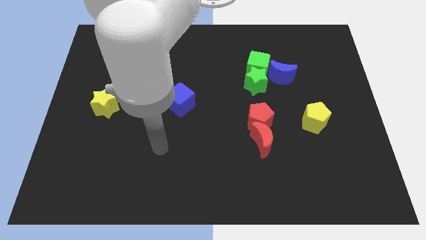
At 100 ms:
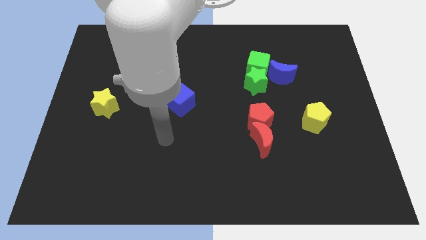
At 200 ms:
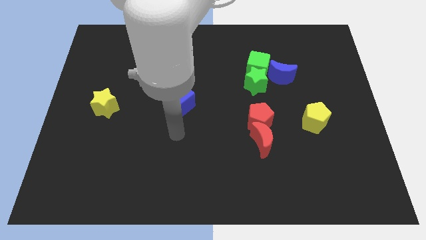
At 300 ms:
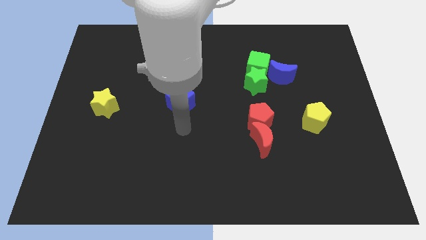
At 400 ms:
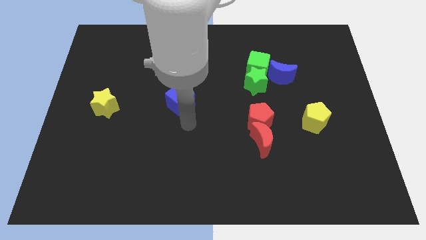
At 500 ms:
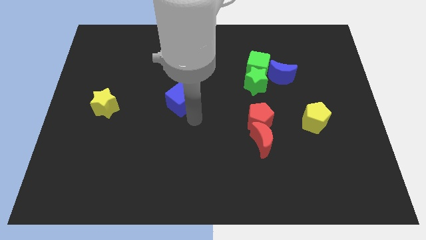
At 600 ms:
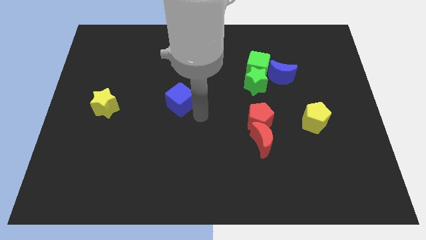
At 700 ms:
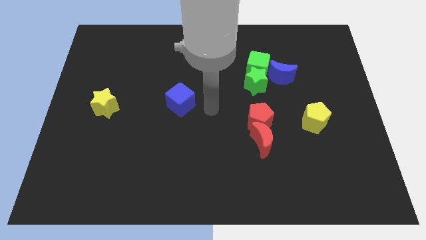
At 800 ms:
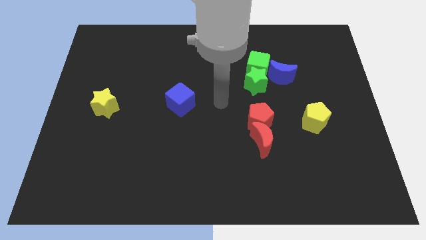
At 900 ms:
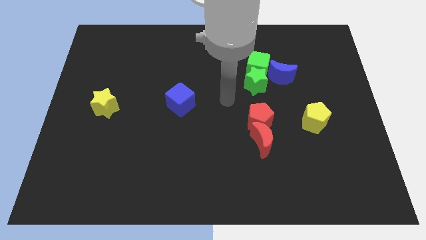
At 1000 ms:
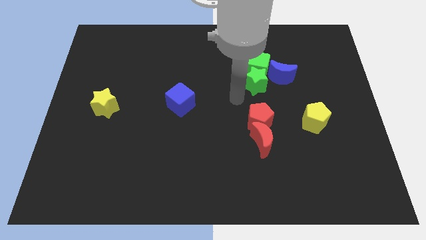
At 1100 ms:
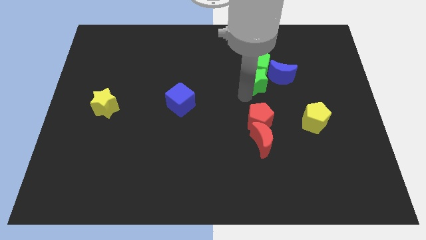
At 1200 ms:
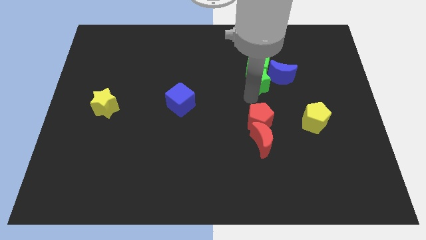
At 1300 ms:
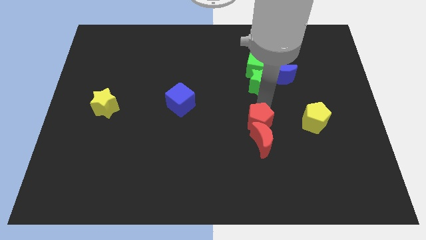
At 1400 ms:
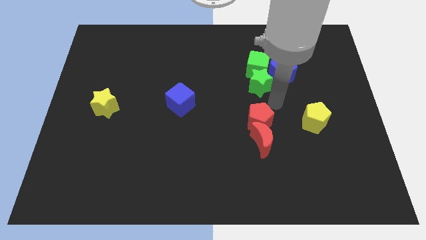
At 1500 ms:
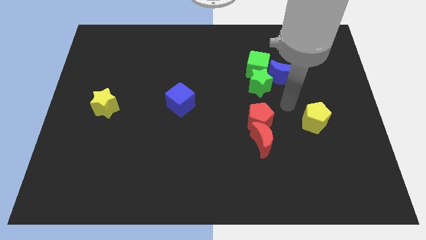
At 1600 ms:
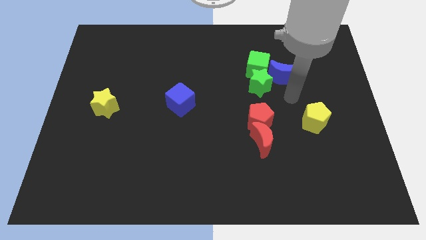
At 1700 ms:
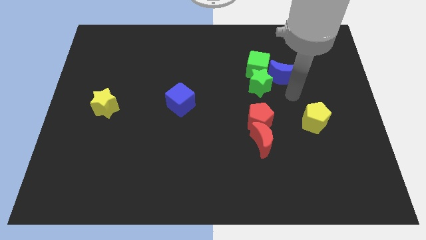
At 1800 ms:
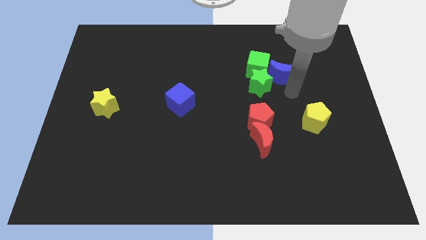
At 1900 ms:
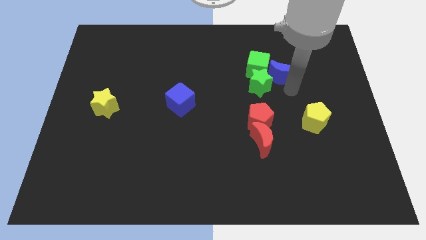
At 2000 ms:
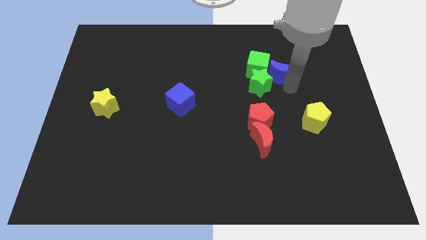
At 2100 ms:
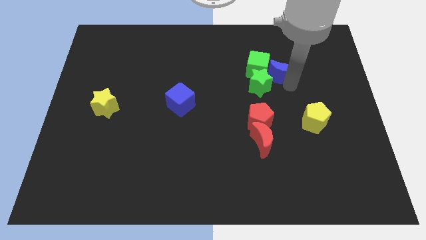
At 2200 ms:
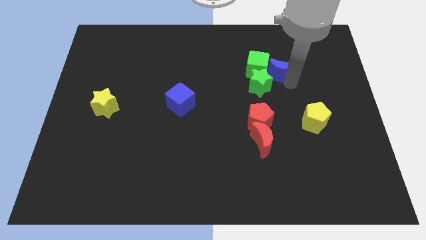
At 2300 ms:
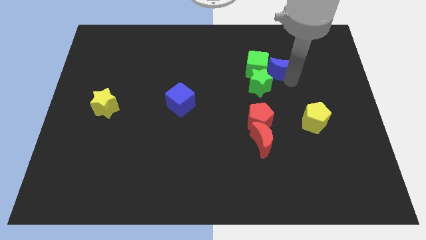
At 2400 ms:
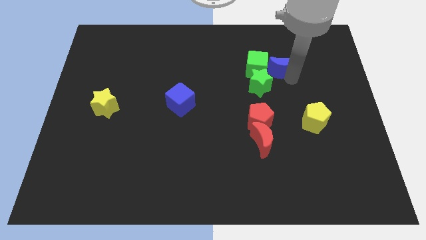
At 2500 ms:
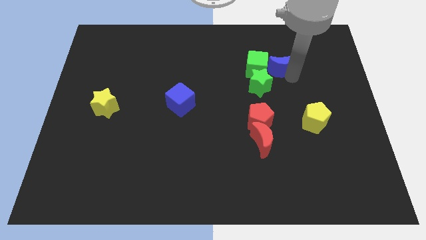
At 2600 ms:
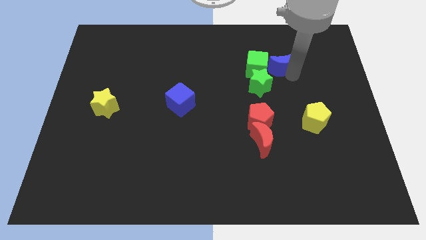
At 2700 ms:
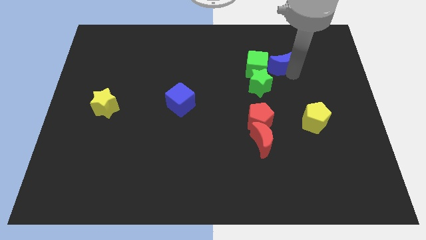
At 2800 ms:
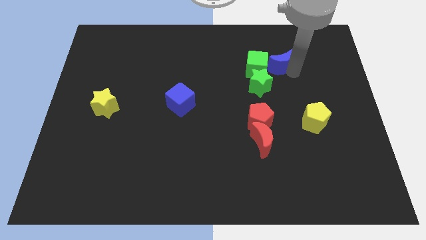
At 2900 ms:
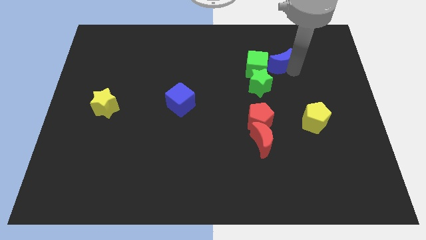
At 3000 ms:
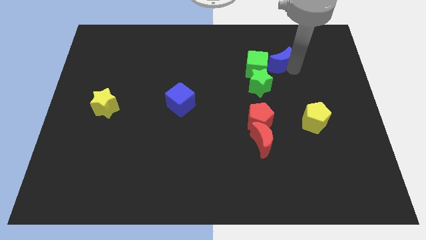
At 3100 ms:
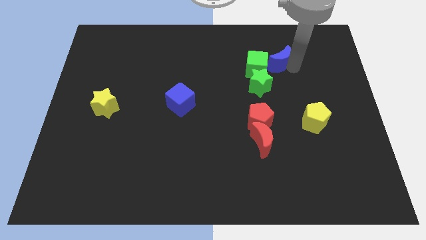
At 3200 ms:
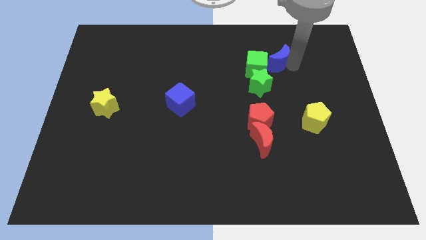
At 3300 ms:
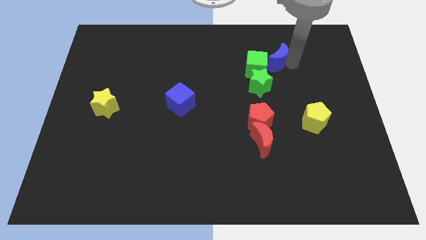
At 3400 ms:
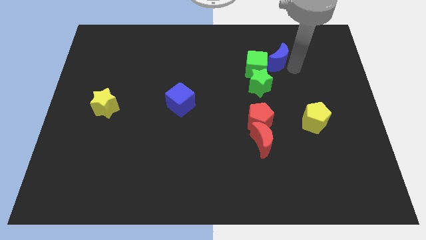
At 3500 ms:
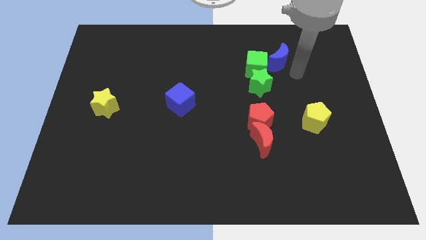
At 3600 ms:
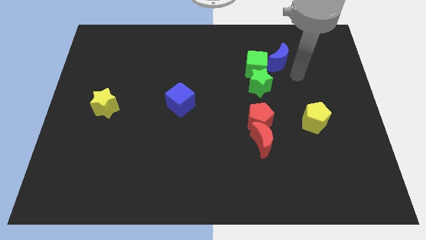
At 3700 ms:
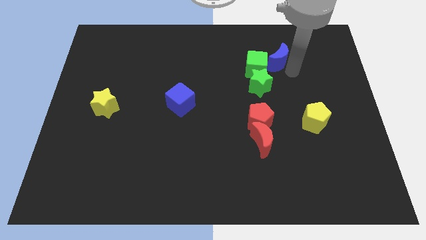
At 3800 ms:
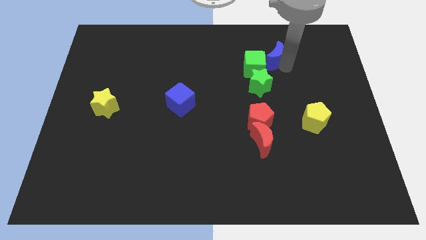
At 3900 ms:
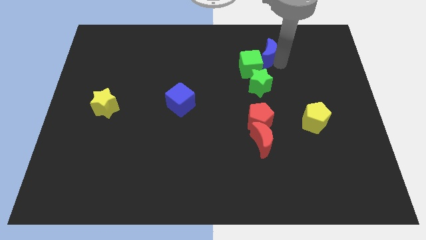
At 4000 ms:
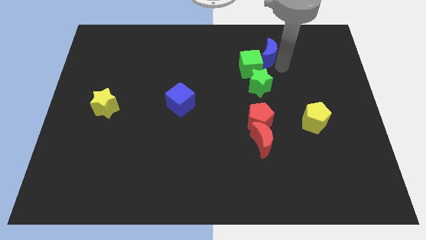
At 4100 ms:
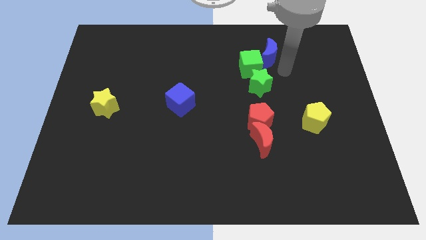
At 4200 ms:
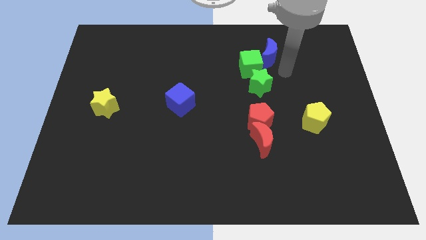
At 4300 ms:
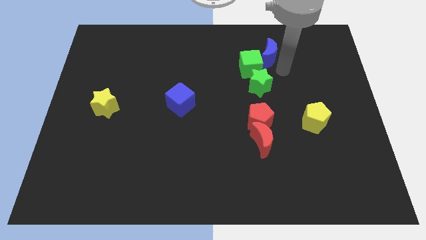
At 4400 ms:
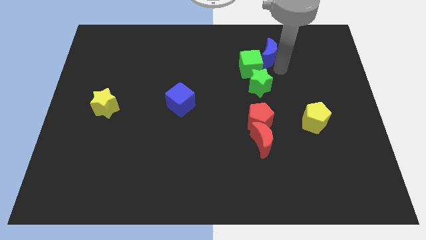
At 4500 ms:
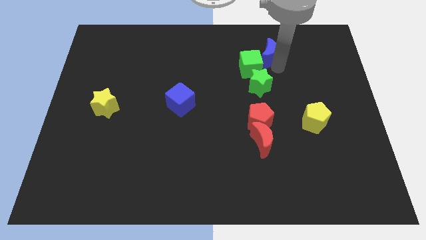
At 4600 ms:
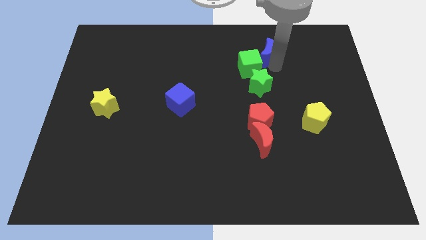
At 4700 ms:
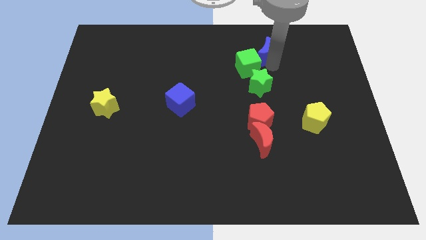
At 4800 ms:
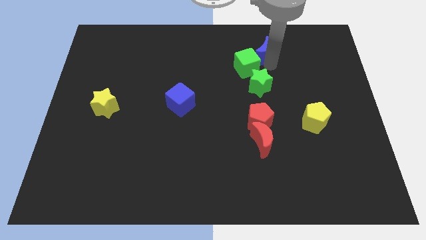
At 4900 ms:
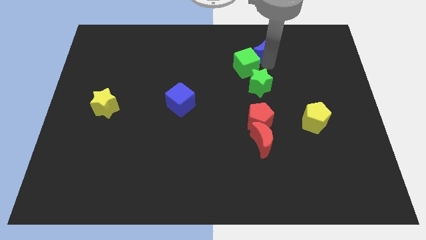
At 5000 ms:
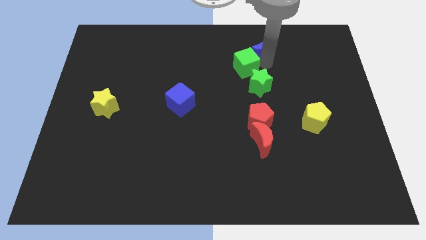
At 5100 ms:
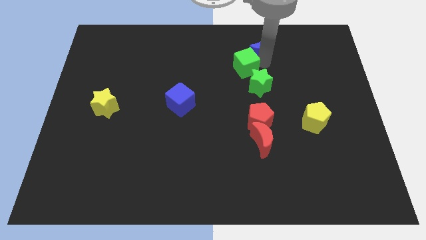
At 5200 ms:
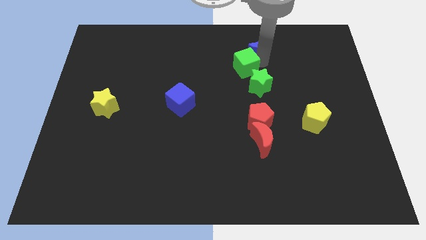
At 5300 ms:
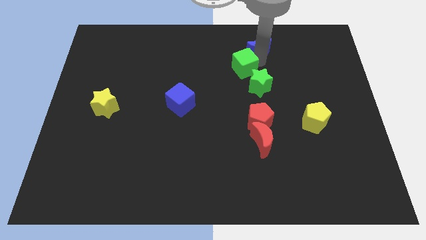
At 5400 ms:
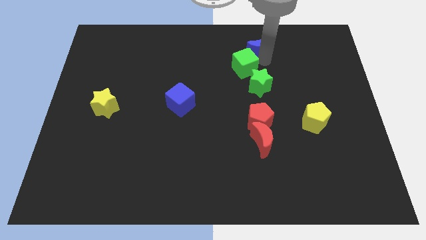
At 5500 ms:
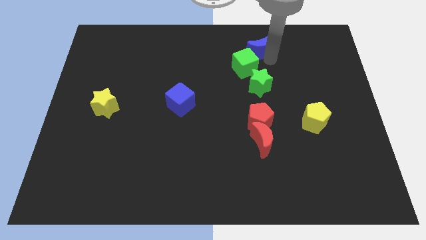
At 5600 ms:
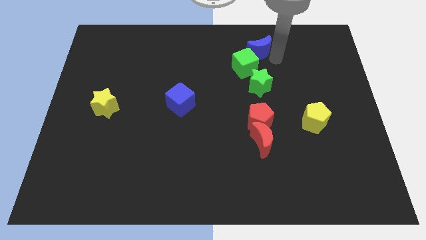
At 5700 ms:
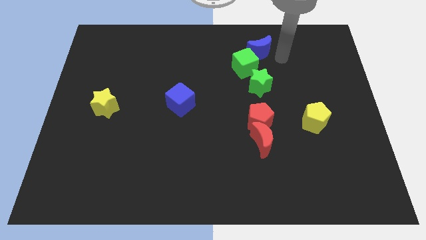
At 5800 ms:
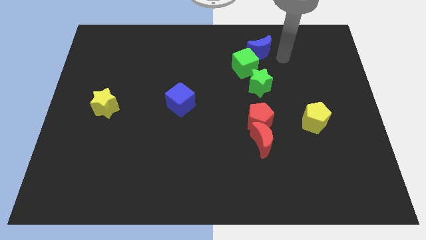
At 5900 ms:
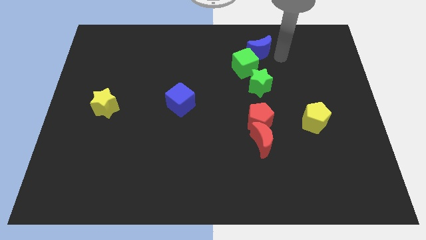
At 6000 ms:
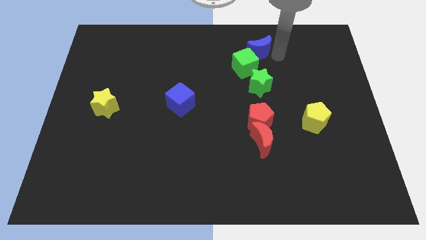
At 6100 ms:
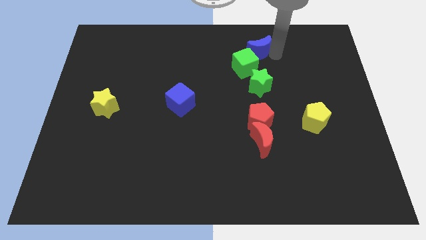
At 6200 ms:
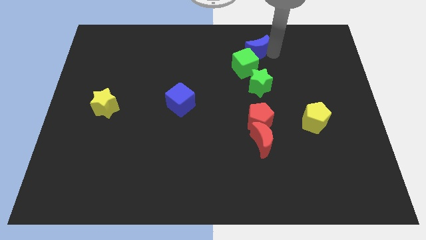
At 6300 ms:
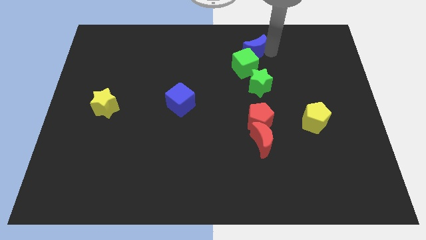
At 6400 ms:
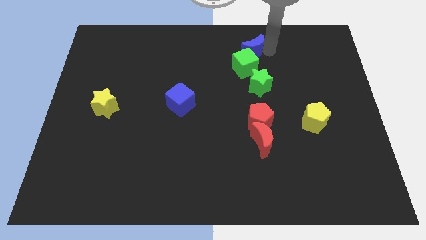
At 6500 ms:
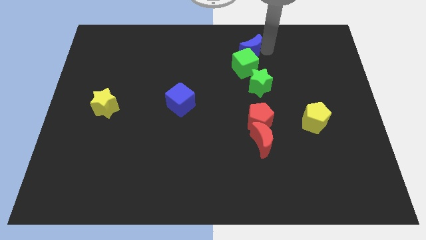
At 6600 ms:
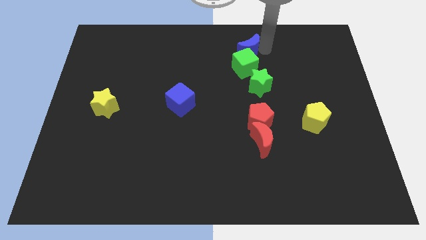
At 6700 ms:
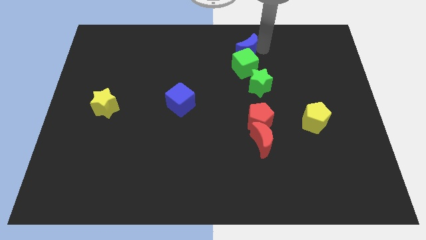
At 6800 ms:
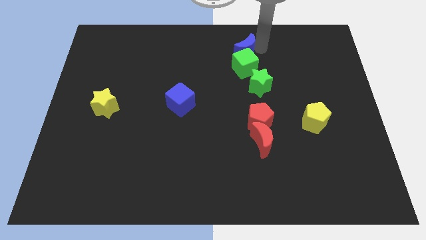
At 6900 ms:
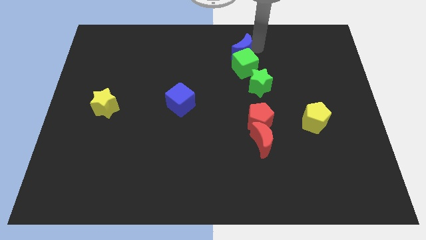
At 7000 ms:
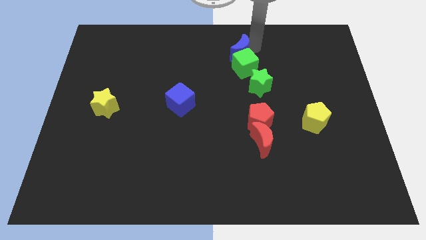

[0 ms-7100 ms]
move the blue moon to the top side
